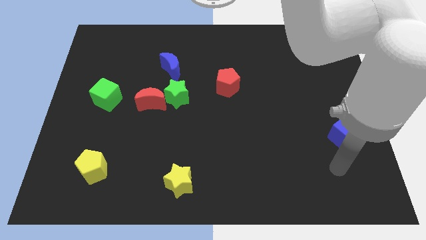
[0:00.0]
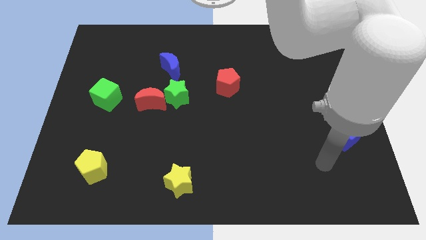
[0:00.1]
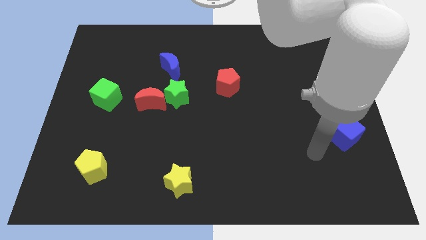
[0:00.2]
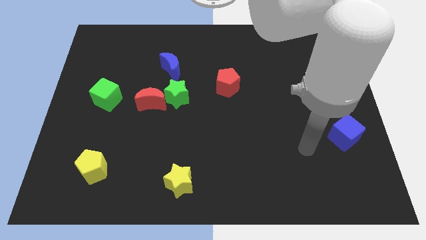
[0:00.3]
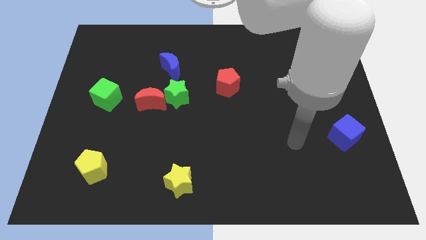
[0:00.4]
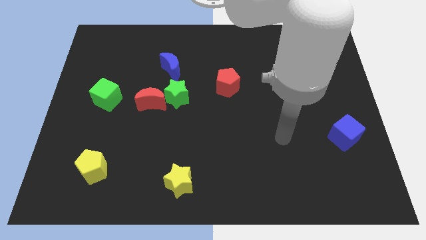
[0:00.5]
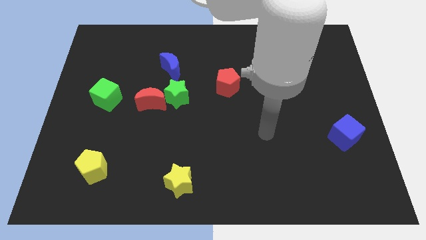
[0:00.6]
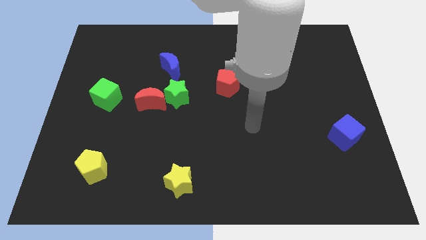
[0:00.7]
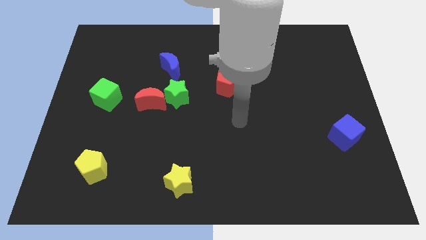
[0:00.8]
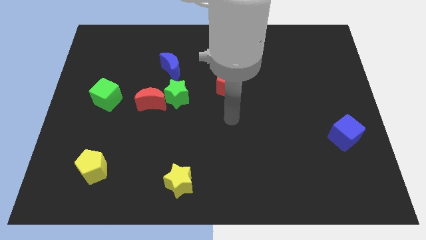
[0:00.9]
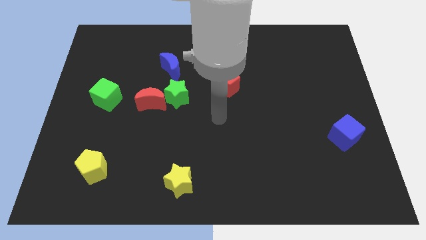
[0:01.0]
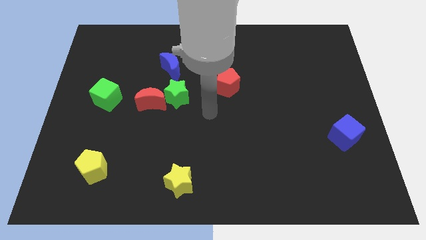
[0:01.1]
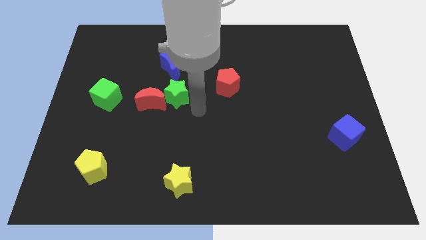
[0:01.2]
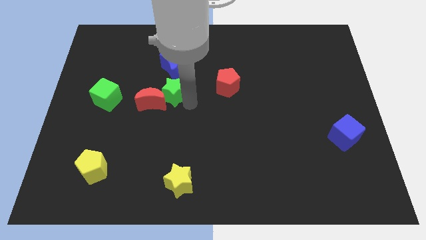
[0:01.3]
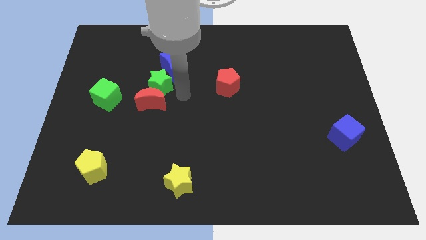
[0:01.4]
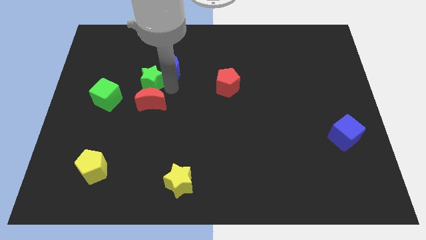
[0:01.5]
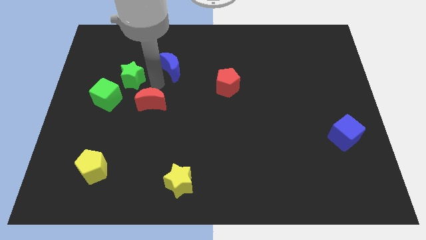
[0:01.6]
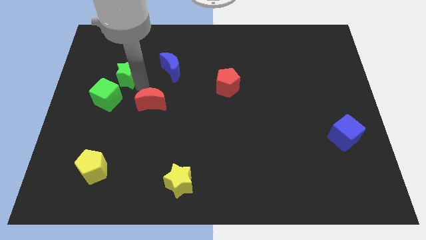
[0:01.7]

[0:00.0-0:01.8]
separate the red moon from the green star

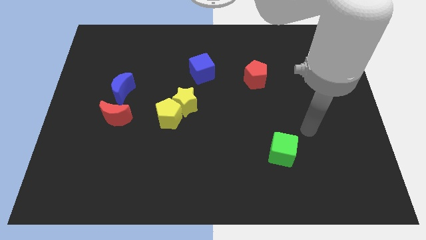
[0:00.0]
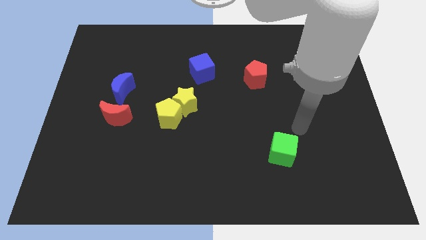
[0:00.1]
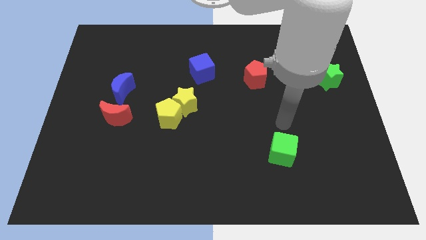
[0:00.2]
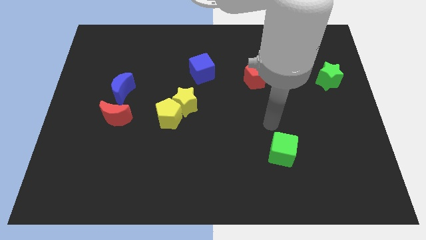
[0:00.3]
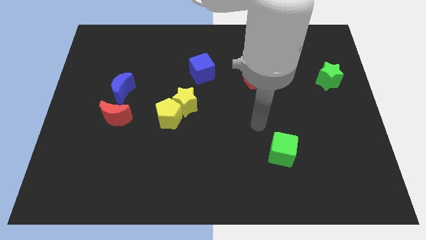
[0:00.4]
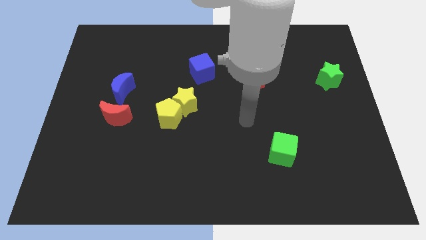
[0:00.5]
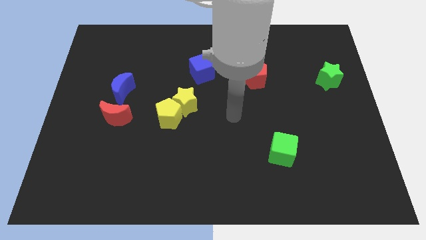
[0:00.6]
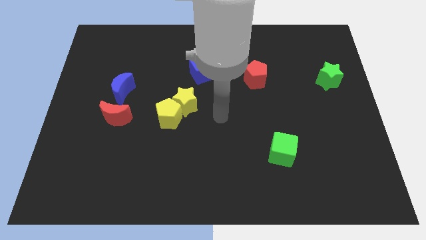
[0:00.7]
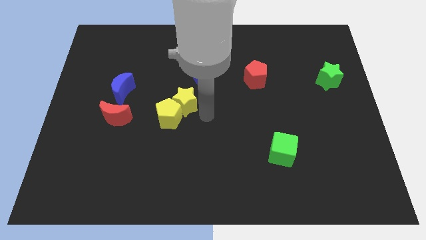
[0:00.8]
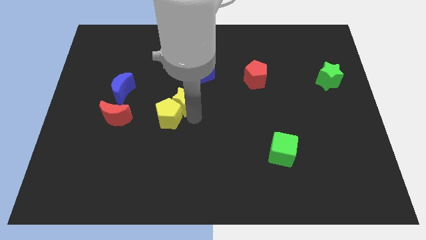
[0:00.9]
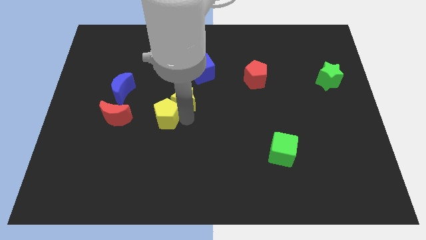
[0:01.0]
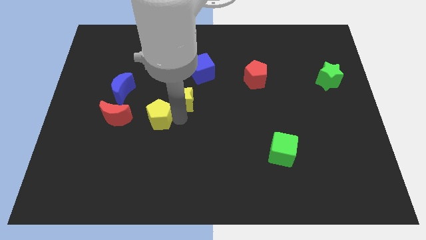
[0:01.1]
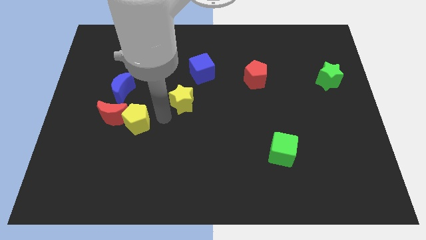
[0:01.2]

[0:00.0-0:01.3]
pull the yellow star apart from the yellow pentagon

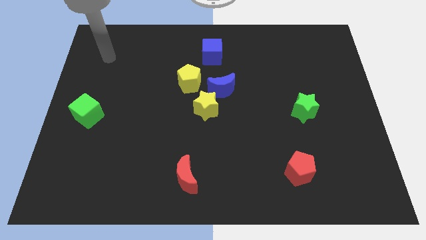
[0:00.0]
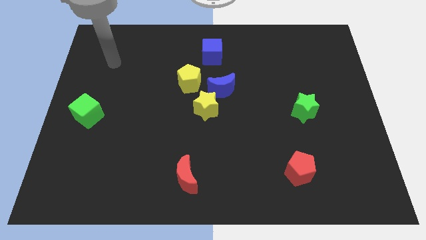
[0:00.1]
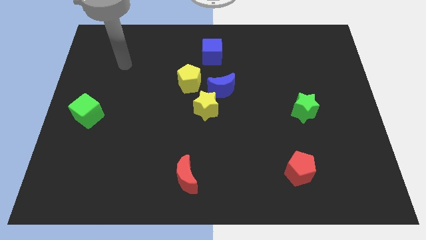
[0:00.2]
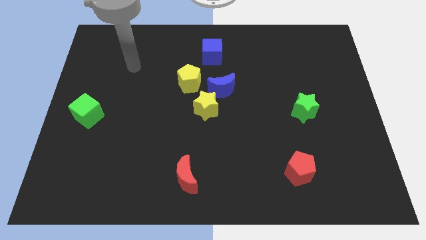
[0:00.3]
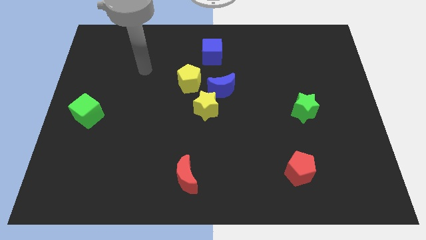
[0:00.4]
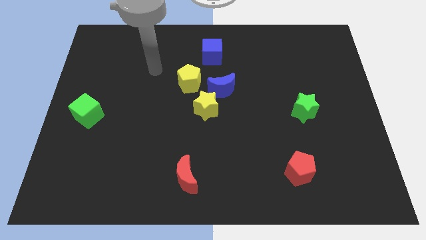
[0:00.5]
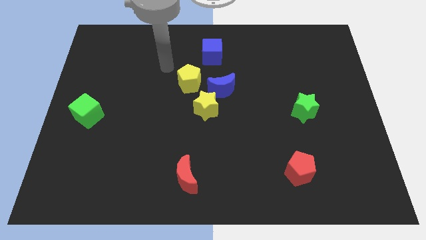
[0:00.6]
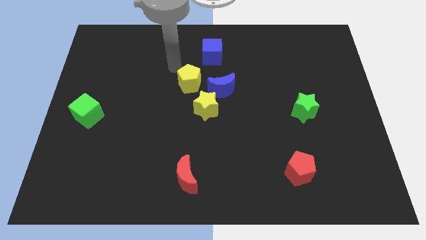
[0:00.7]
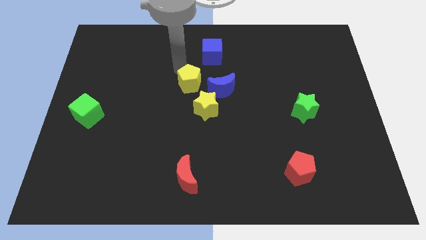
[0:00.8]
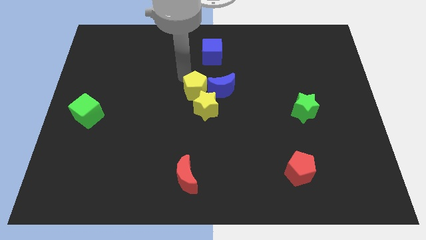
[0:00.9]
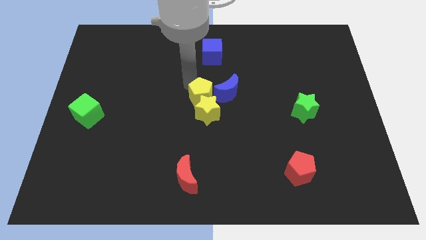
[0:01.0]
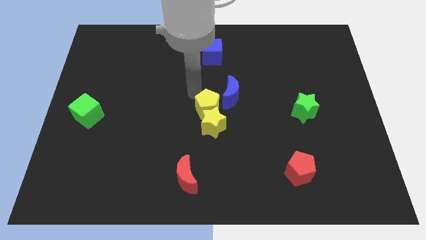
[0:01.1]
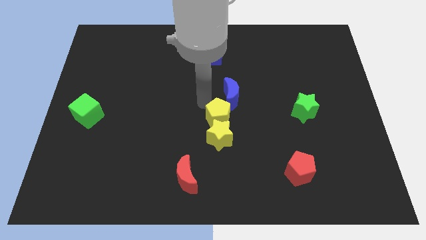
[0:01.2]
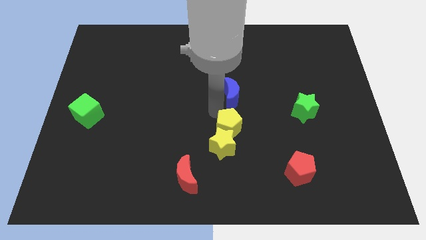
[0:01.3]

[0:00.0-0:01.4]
separate the blue moon from the yellow star and yellow pentagon

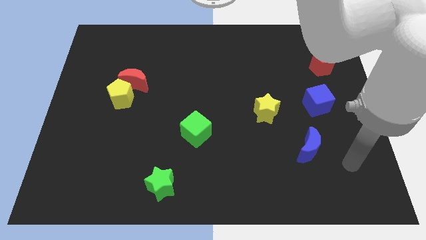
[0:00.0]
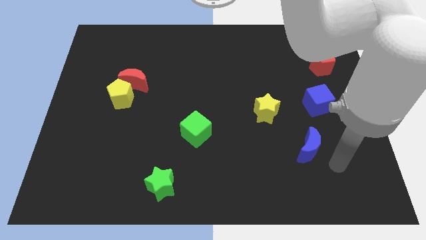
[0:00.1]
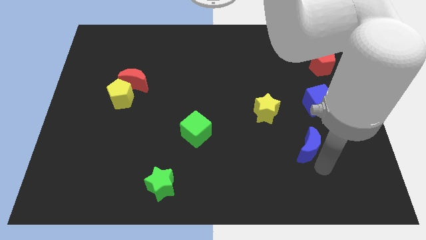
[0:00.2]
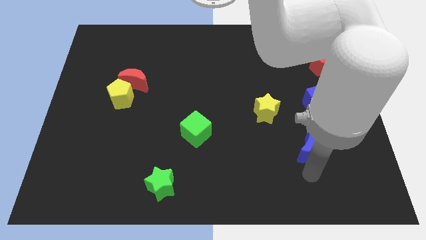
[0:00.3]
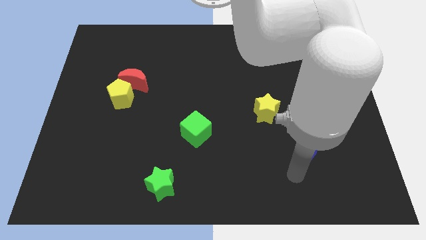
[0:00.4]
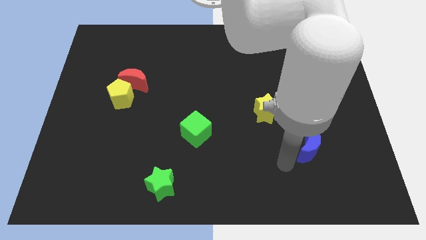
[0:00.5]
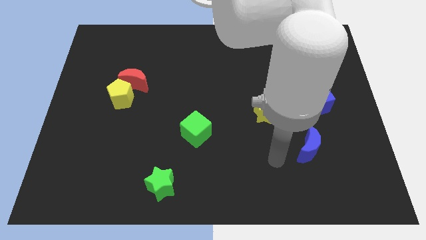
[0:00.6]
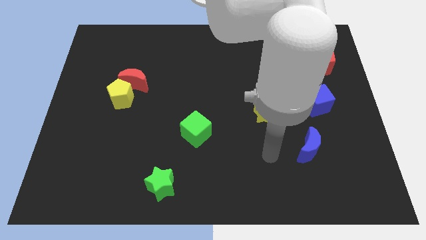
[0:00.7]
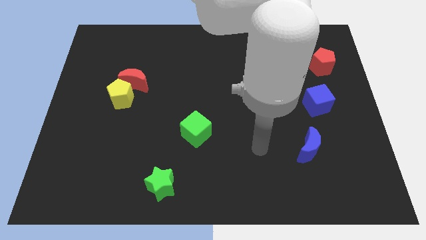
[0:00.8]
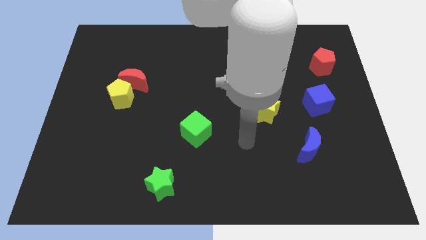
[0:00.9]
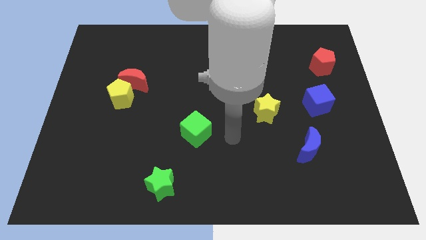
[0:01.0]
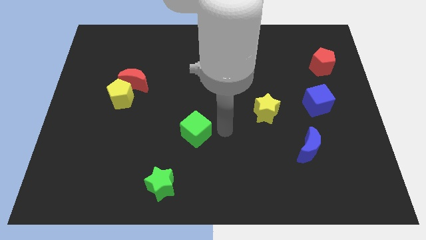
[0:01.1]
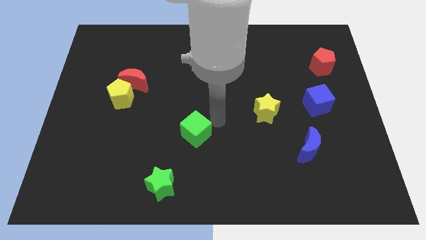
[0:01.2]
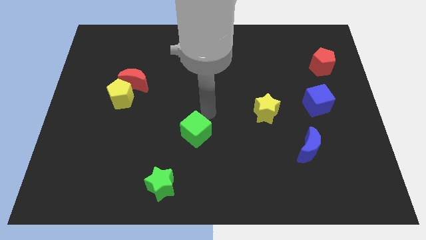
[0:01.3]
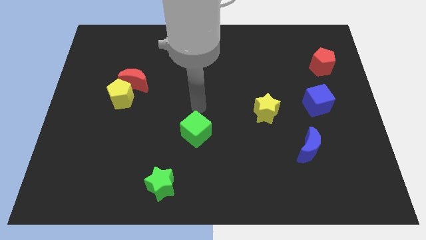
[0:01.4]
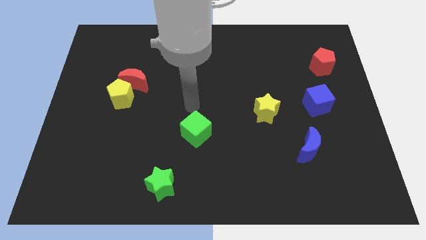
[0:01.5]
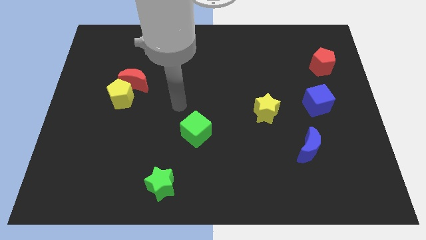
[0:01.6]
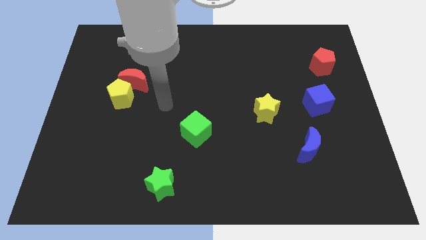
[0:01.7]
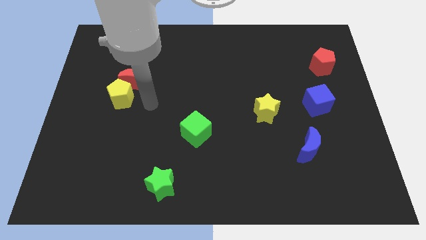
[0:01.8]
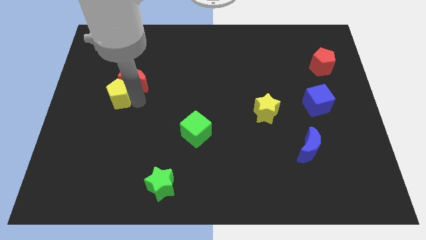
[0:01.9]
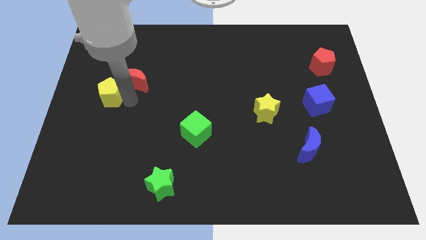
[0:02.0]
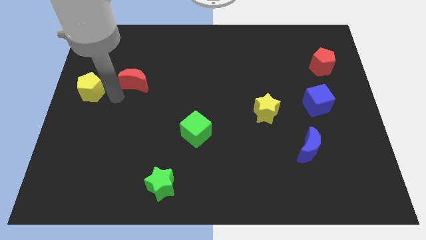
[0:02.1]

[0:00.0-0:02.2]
move the red moon away from the yellow pentagon

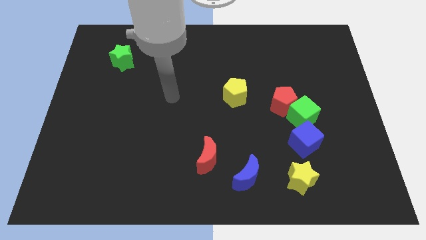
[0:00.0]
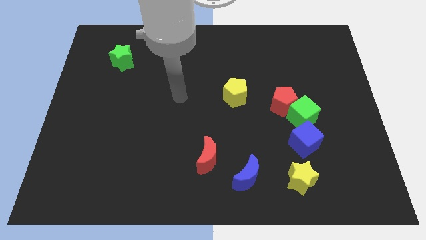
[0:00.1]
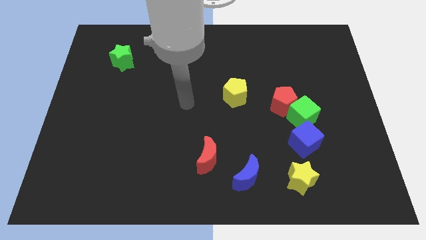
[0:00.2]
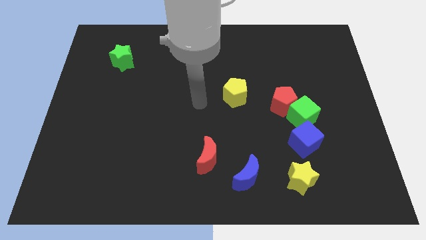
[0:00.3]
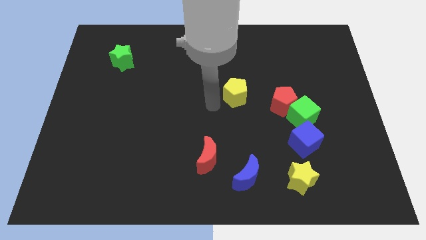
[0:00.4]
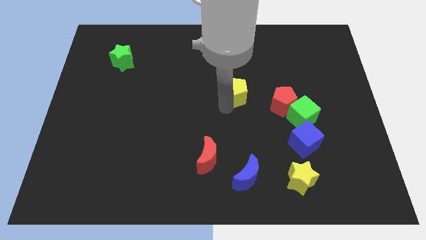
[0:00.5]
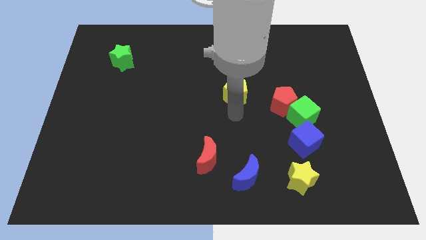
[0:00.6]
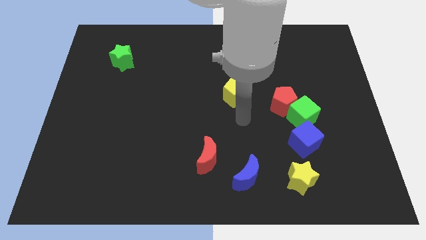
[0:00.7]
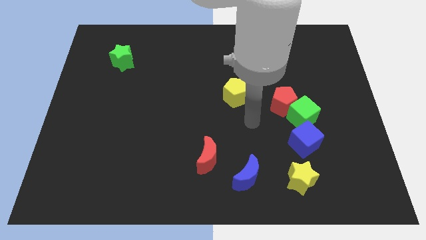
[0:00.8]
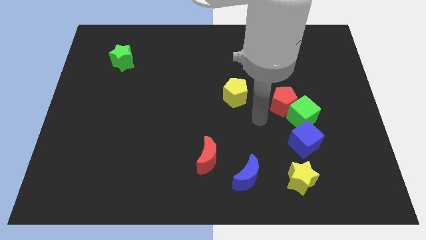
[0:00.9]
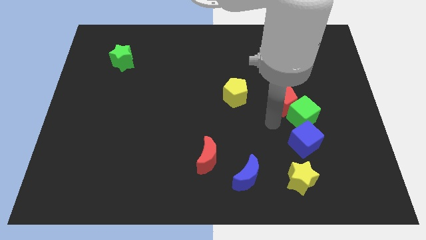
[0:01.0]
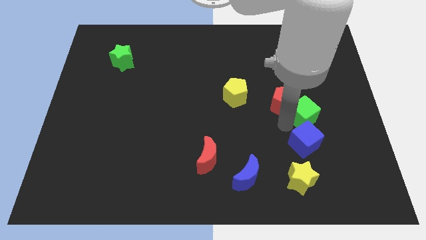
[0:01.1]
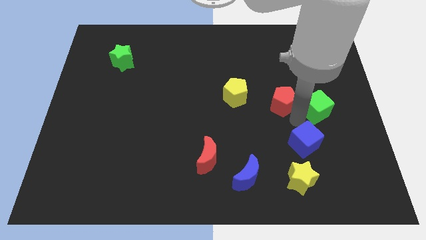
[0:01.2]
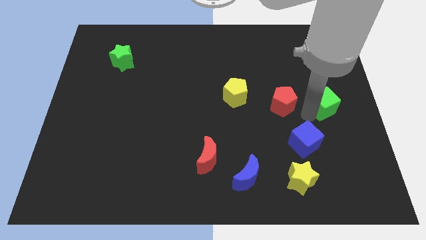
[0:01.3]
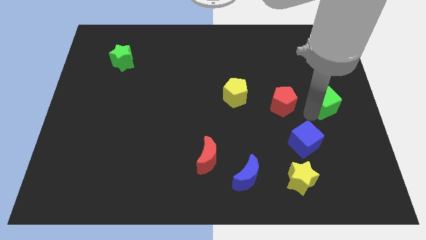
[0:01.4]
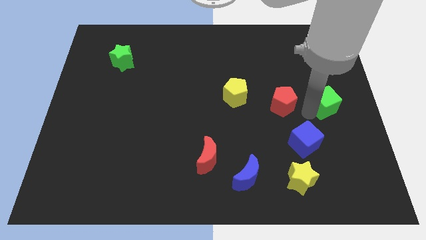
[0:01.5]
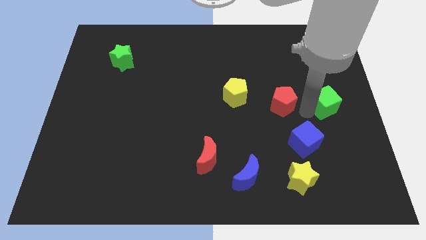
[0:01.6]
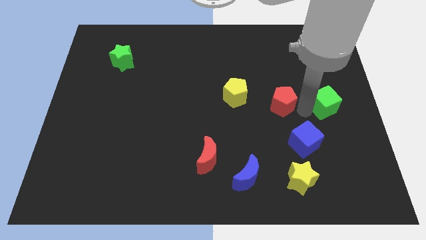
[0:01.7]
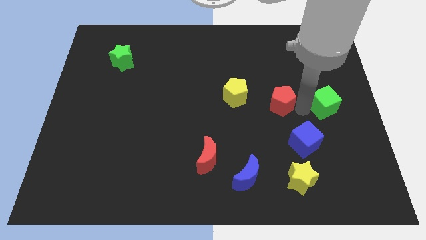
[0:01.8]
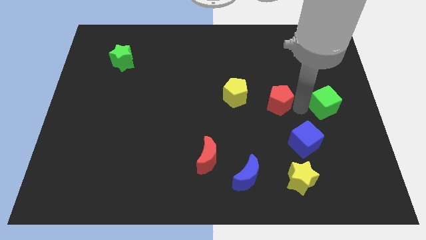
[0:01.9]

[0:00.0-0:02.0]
move the red pentagon away from the green cube

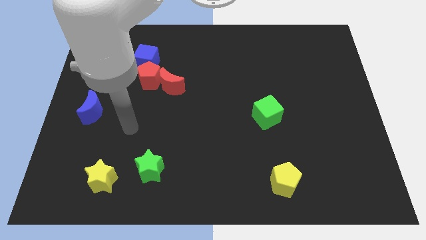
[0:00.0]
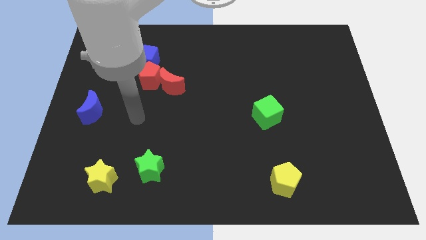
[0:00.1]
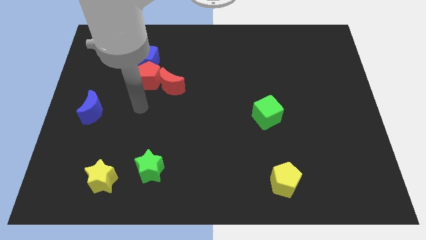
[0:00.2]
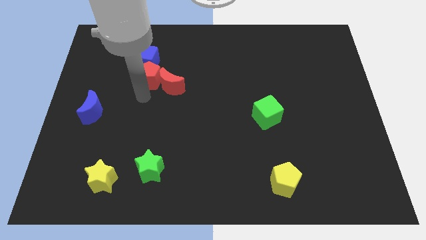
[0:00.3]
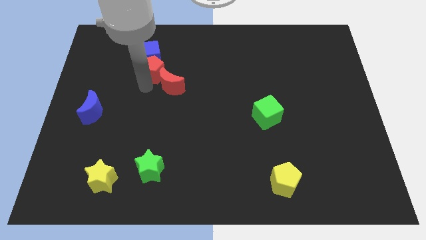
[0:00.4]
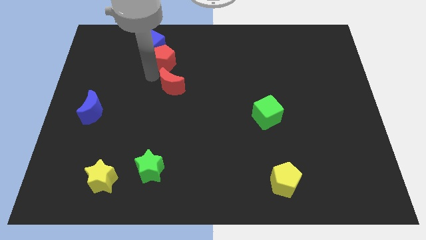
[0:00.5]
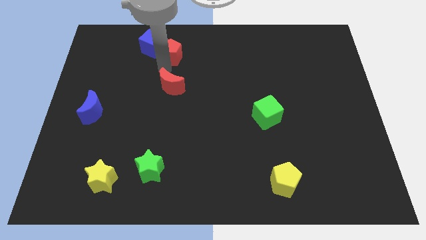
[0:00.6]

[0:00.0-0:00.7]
move the red moon away from the red pentagon
